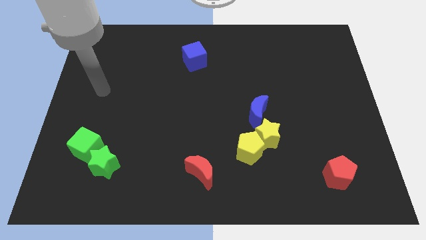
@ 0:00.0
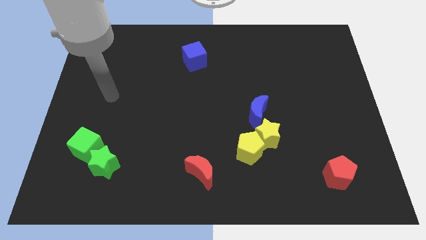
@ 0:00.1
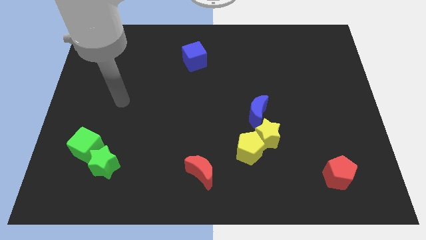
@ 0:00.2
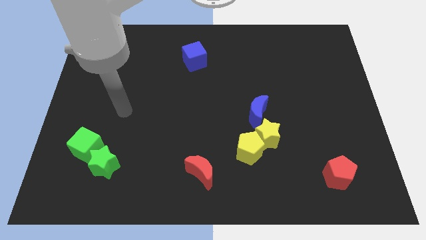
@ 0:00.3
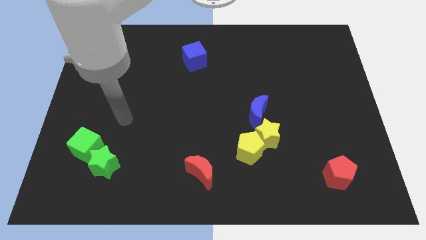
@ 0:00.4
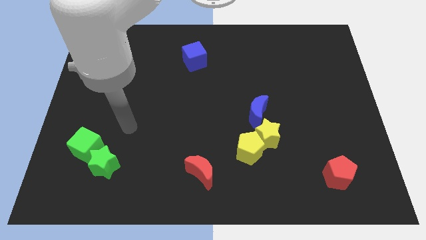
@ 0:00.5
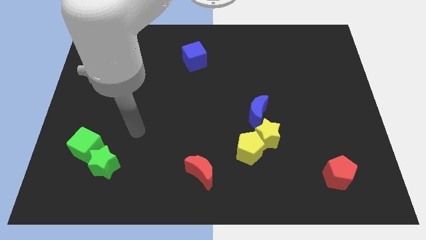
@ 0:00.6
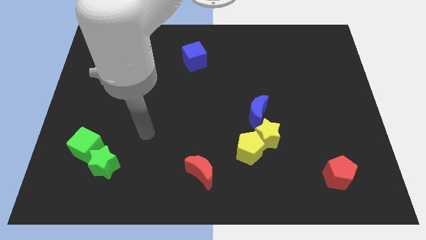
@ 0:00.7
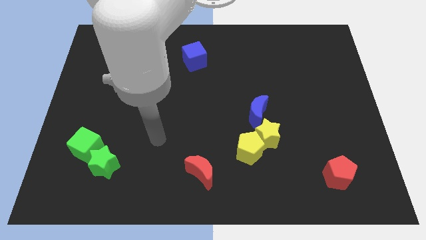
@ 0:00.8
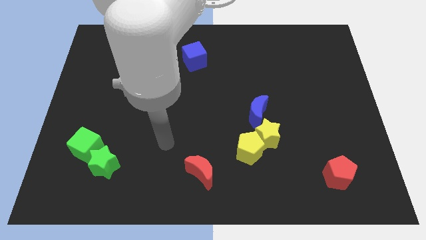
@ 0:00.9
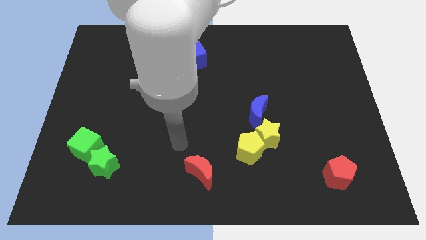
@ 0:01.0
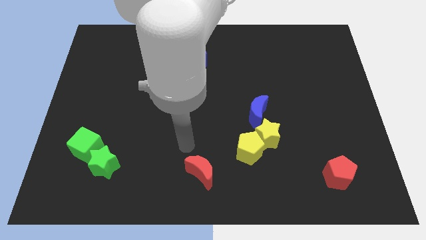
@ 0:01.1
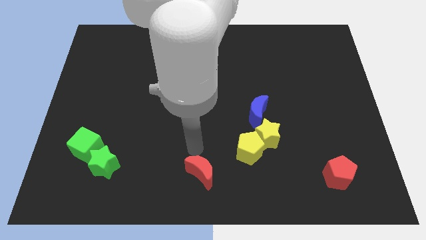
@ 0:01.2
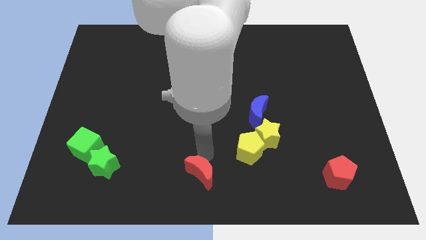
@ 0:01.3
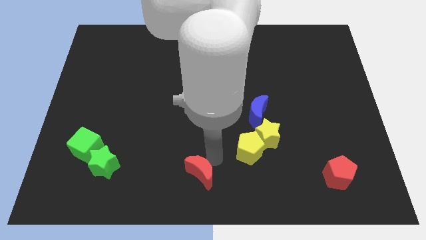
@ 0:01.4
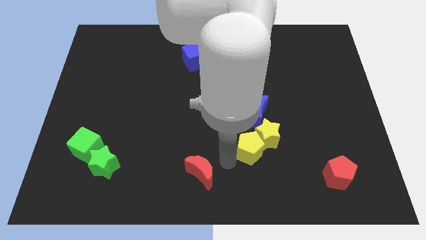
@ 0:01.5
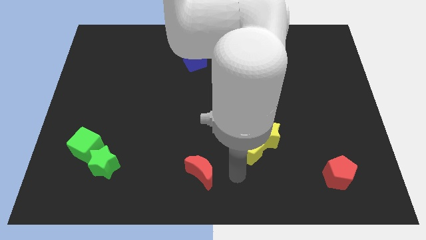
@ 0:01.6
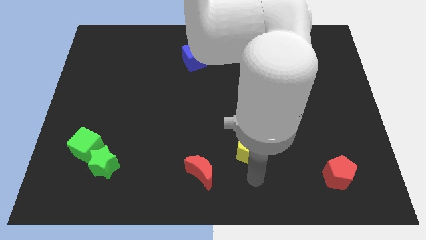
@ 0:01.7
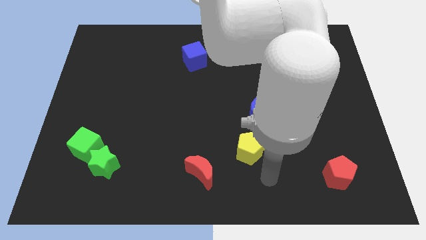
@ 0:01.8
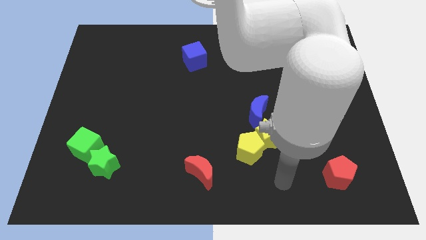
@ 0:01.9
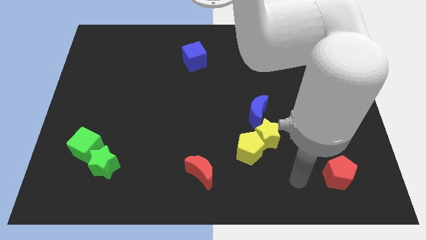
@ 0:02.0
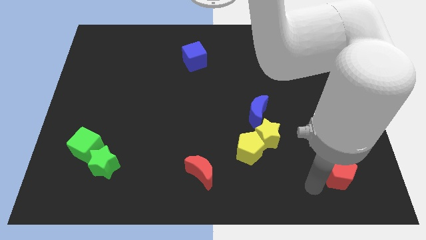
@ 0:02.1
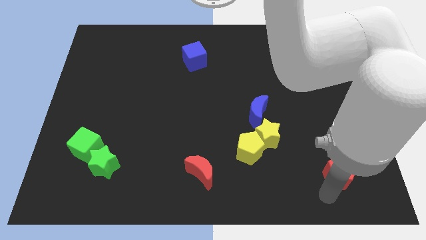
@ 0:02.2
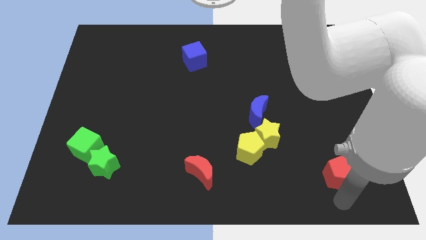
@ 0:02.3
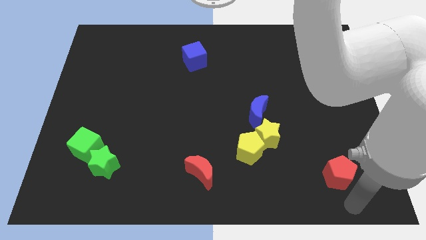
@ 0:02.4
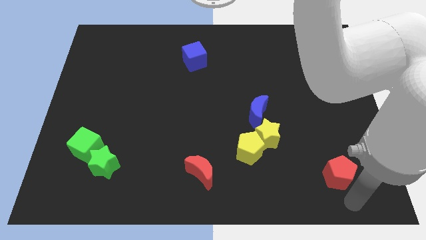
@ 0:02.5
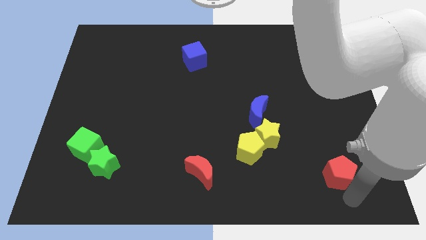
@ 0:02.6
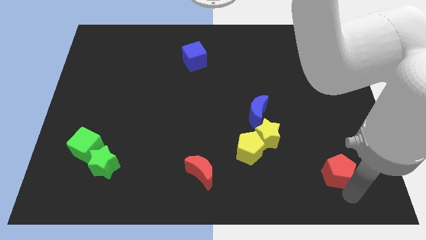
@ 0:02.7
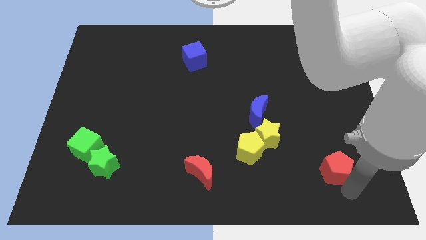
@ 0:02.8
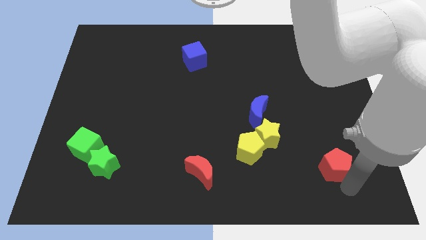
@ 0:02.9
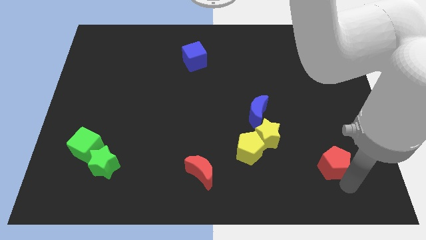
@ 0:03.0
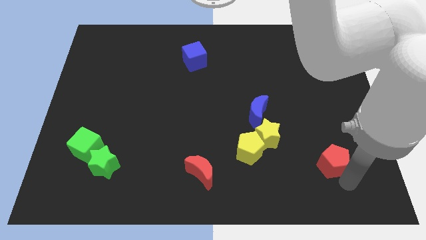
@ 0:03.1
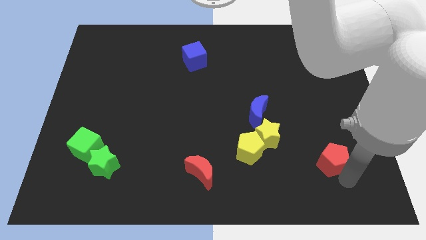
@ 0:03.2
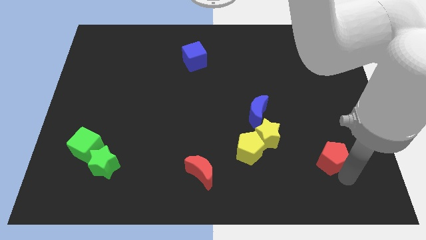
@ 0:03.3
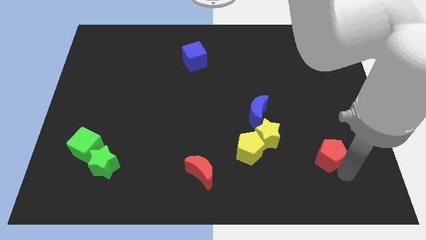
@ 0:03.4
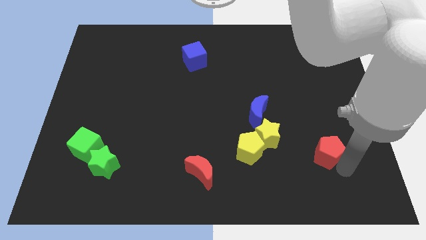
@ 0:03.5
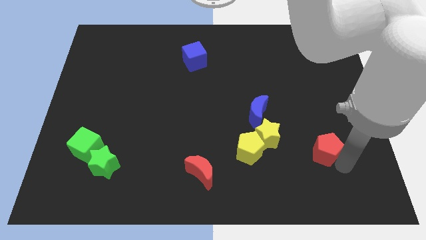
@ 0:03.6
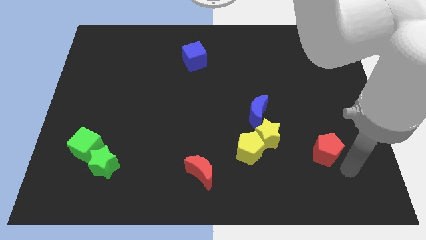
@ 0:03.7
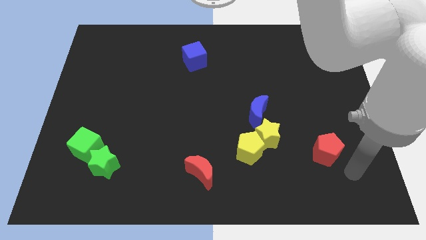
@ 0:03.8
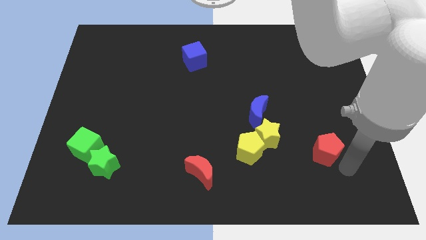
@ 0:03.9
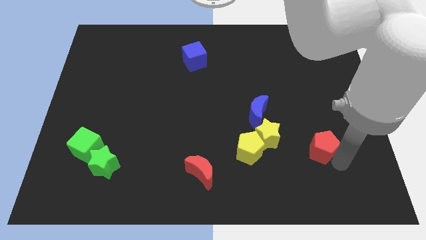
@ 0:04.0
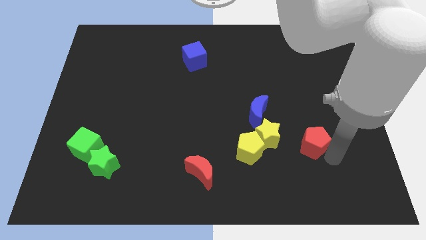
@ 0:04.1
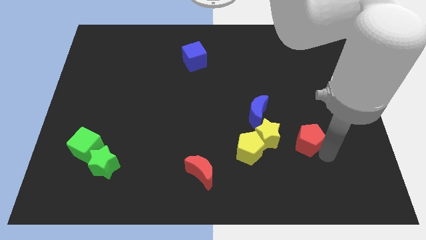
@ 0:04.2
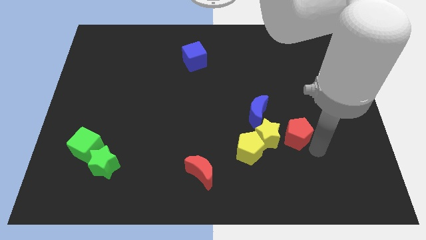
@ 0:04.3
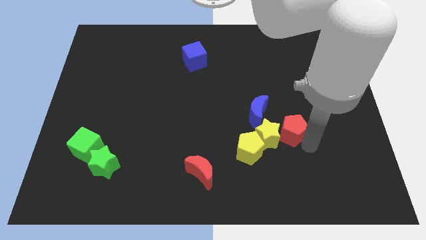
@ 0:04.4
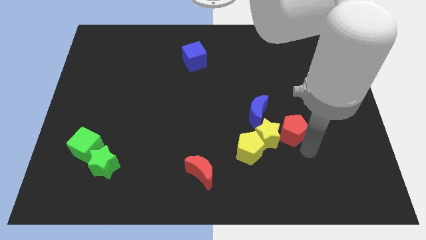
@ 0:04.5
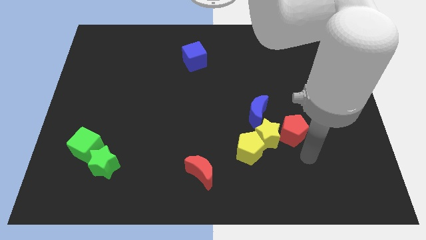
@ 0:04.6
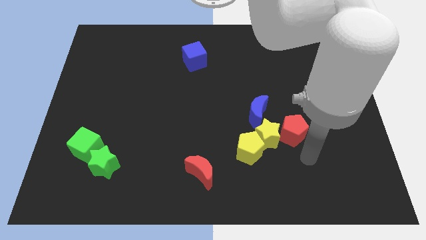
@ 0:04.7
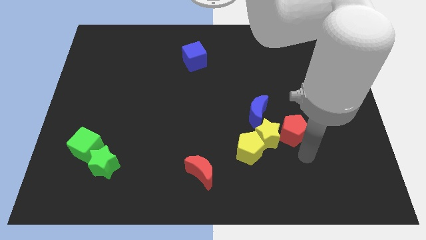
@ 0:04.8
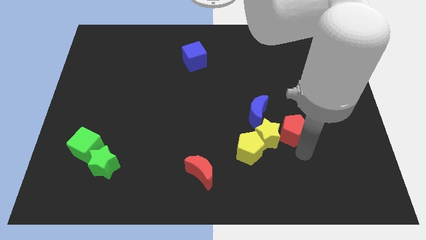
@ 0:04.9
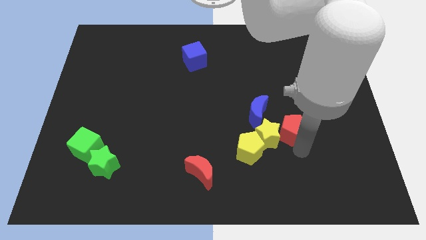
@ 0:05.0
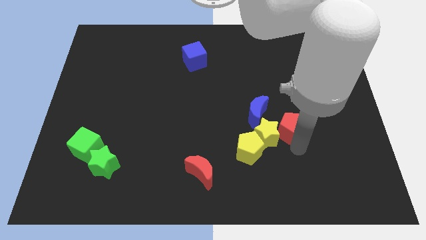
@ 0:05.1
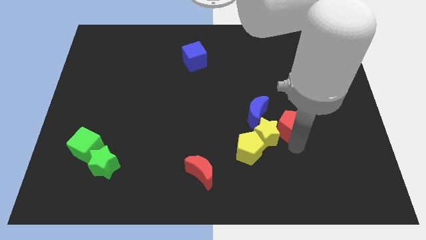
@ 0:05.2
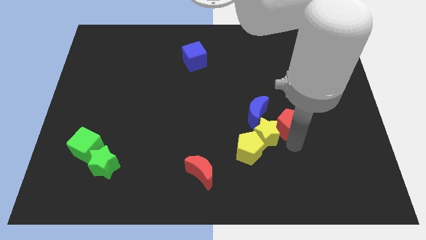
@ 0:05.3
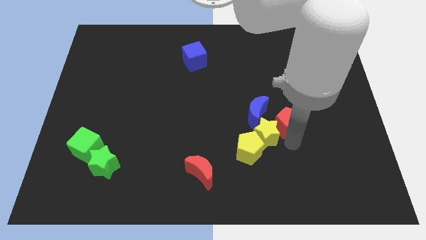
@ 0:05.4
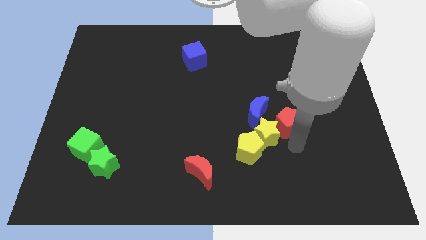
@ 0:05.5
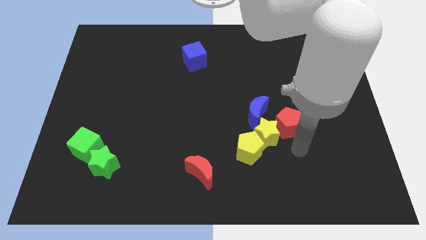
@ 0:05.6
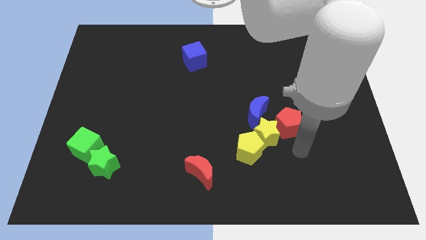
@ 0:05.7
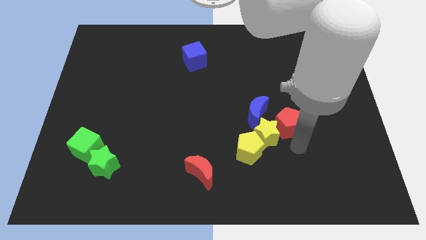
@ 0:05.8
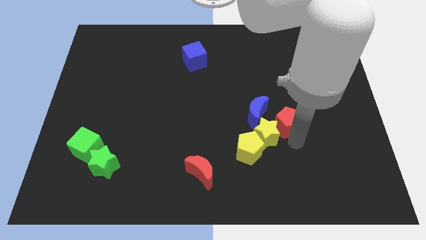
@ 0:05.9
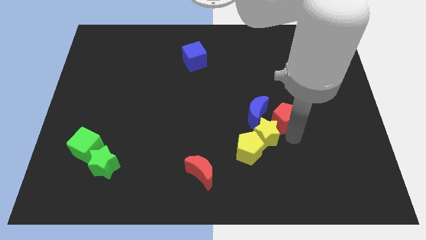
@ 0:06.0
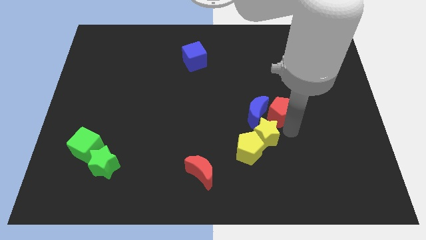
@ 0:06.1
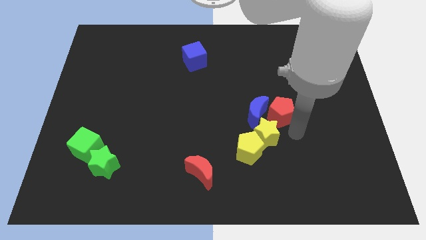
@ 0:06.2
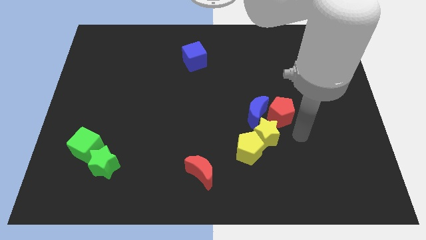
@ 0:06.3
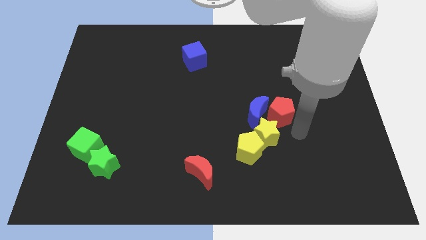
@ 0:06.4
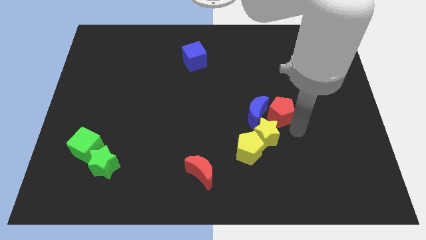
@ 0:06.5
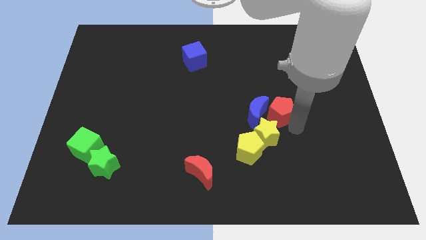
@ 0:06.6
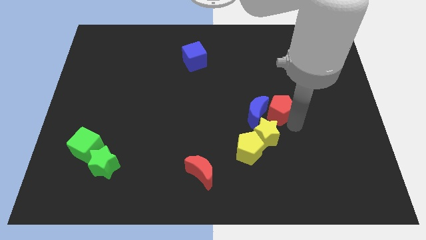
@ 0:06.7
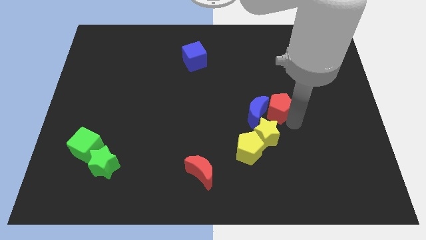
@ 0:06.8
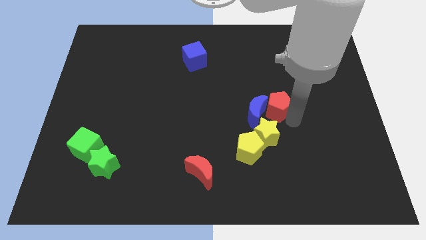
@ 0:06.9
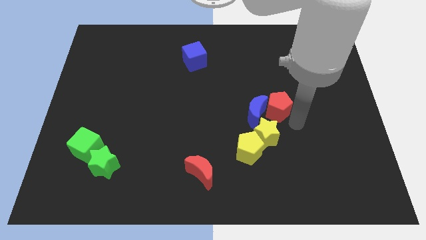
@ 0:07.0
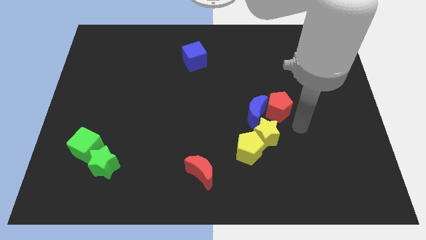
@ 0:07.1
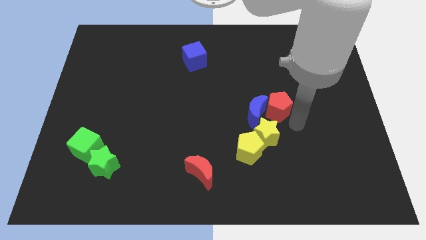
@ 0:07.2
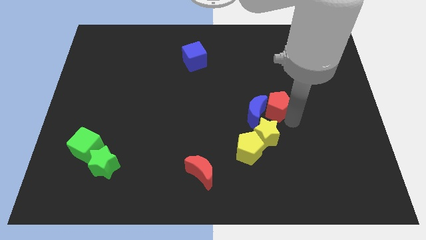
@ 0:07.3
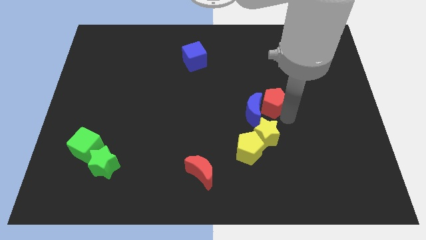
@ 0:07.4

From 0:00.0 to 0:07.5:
push the red pentagon upwards and left

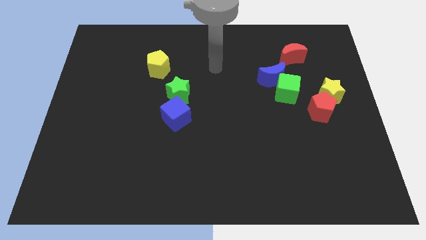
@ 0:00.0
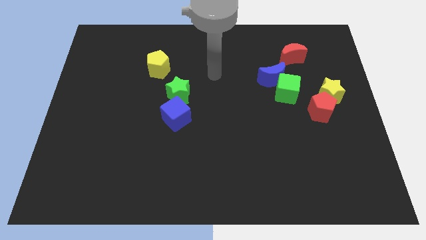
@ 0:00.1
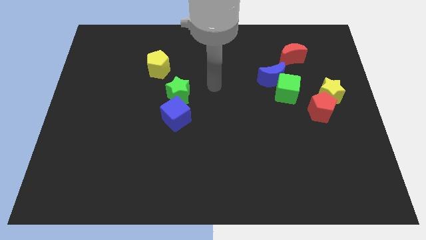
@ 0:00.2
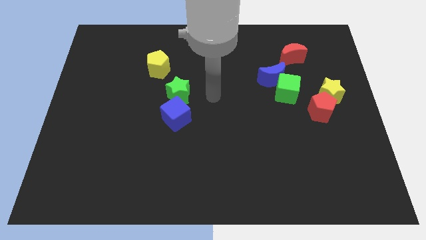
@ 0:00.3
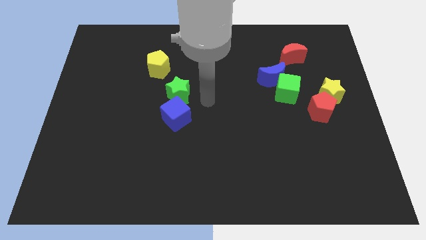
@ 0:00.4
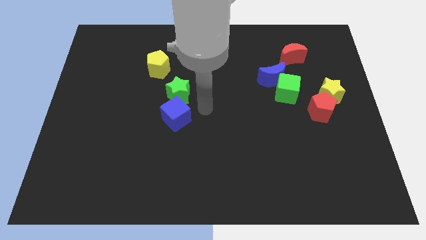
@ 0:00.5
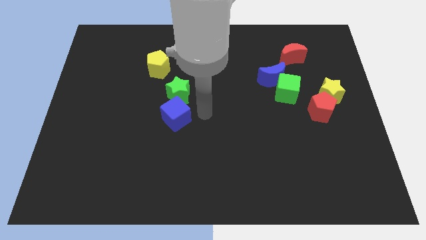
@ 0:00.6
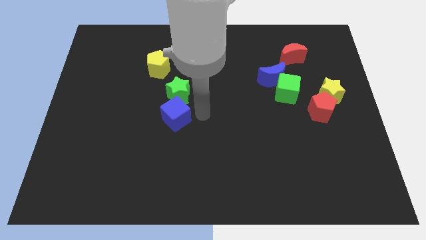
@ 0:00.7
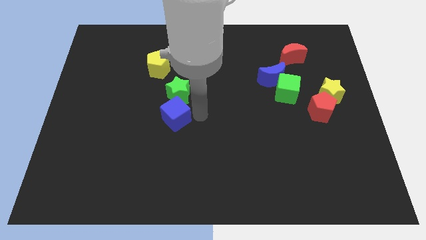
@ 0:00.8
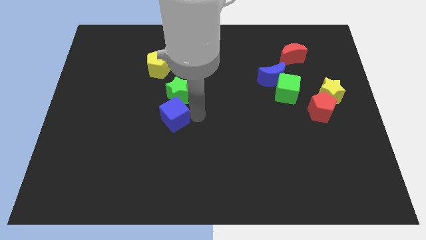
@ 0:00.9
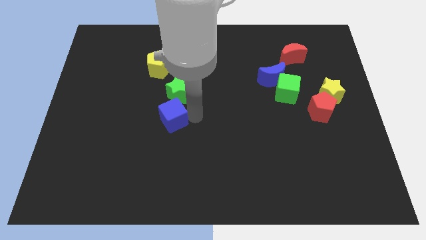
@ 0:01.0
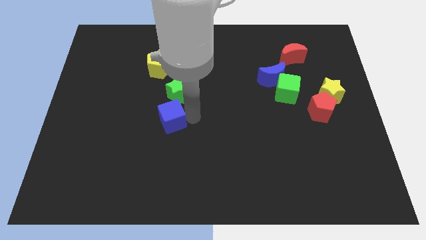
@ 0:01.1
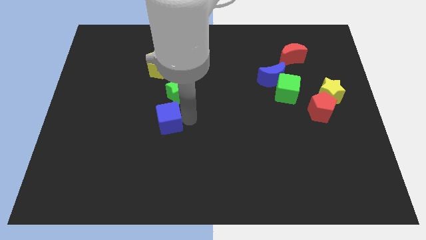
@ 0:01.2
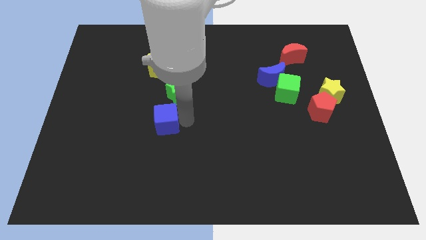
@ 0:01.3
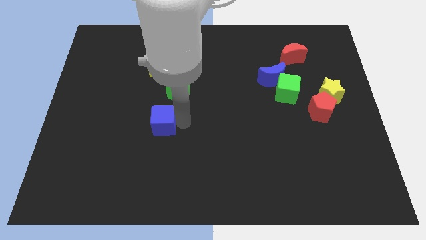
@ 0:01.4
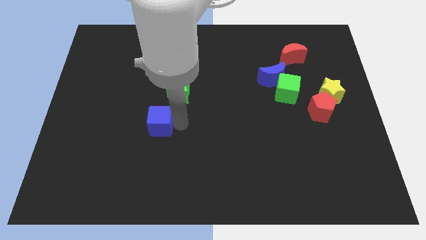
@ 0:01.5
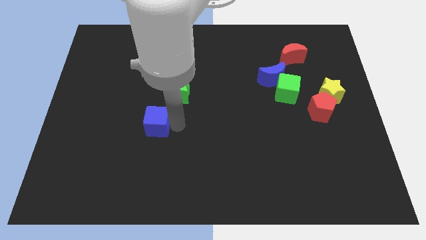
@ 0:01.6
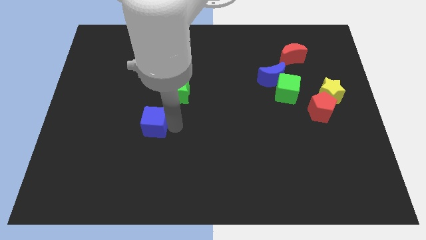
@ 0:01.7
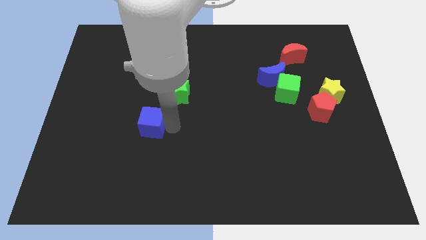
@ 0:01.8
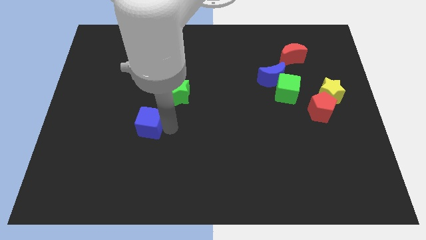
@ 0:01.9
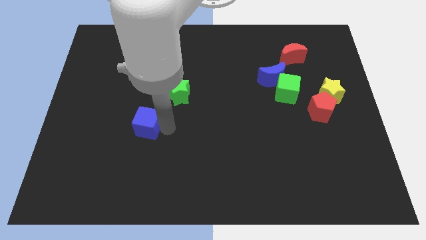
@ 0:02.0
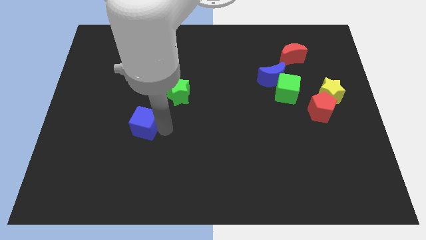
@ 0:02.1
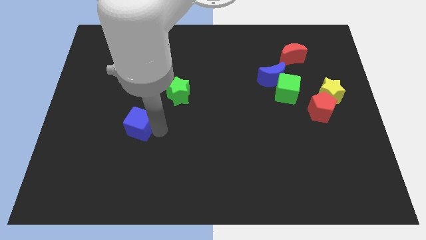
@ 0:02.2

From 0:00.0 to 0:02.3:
push the blue cube a little bit left
